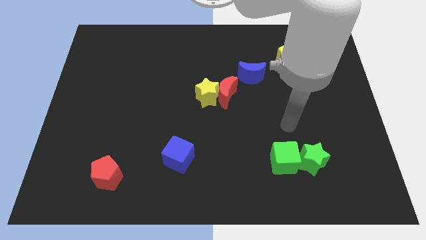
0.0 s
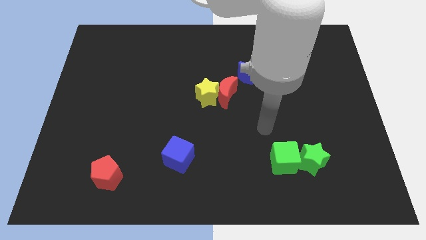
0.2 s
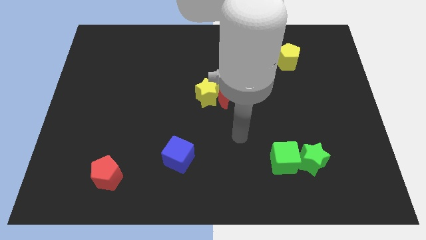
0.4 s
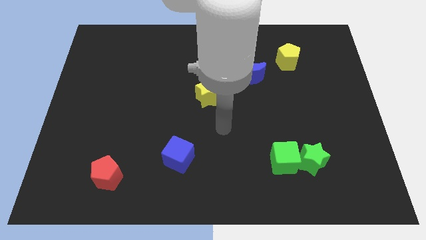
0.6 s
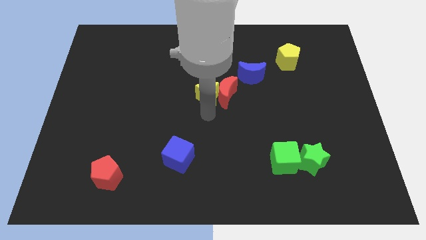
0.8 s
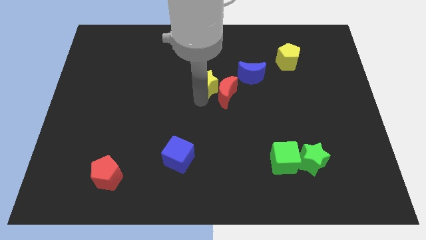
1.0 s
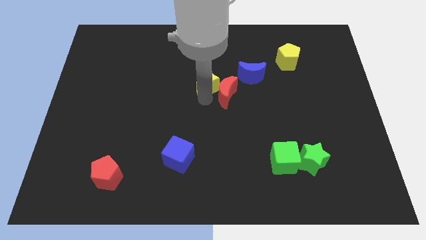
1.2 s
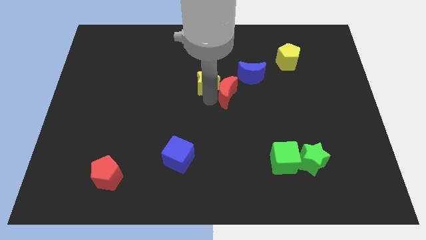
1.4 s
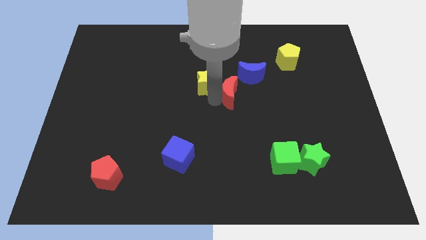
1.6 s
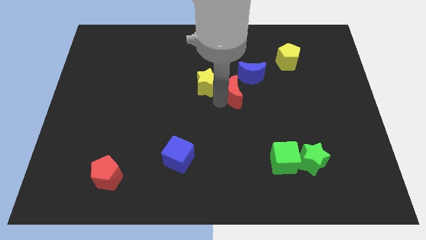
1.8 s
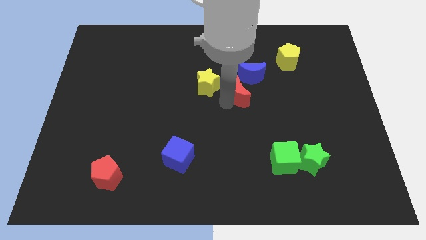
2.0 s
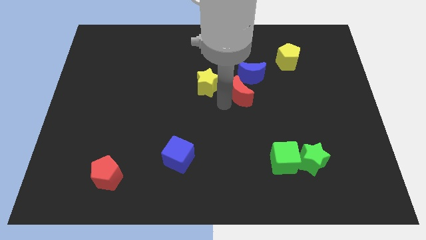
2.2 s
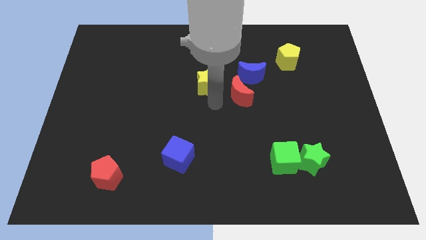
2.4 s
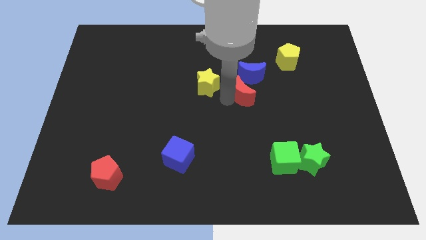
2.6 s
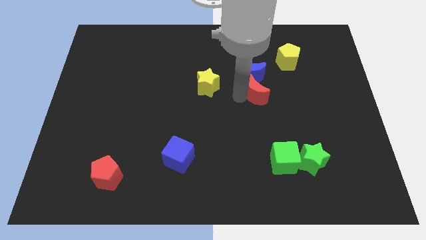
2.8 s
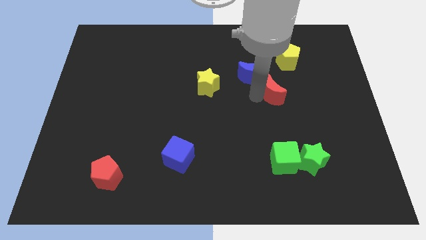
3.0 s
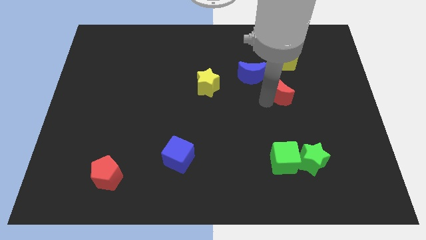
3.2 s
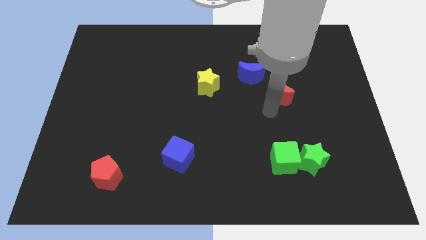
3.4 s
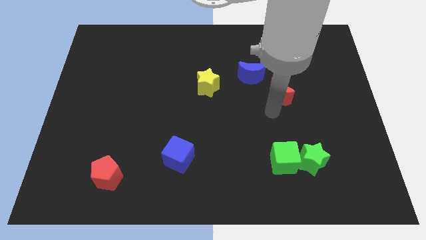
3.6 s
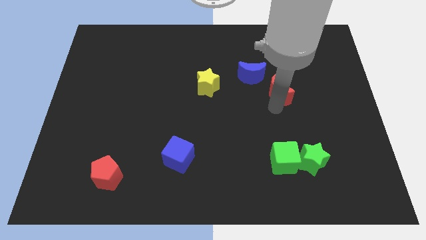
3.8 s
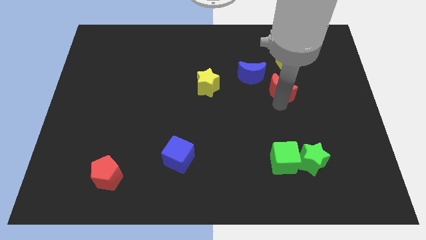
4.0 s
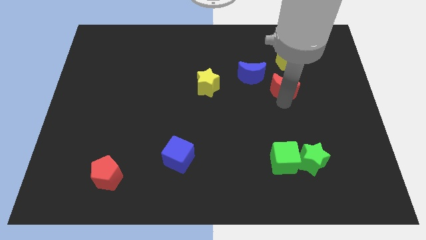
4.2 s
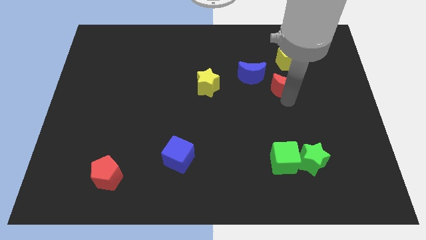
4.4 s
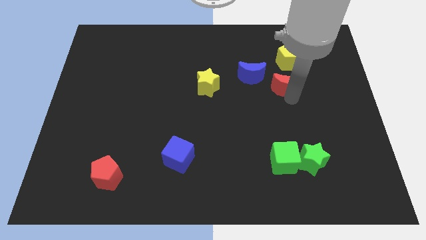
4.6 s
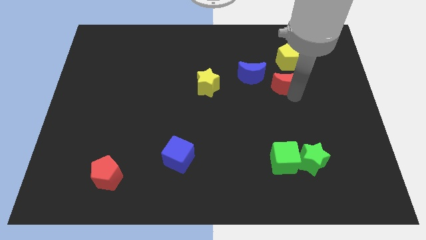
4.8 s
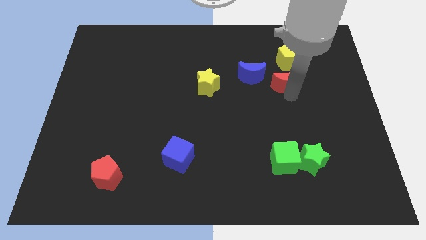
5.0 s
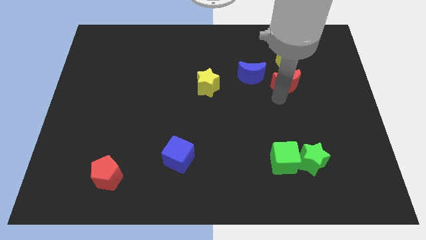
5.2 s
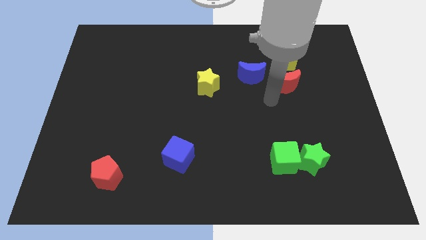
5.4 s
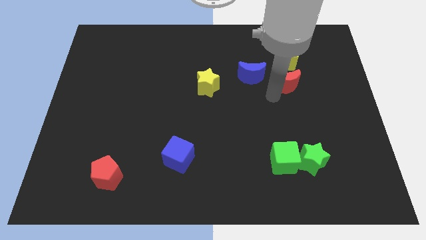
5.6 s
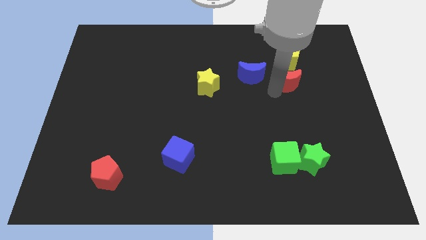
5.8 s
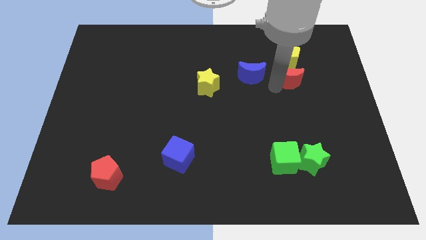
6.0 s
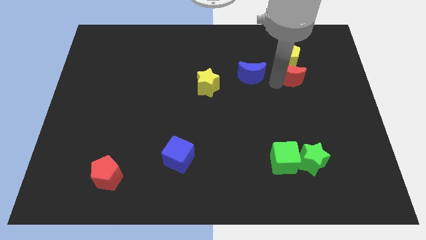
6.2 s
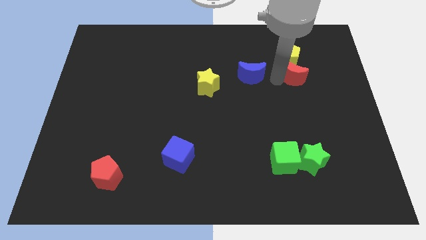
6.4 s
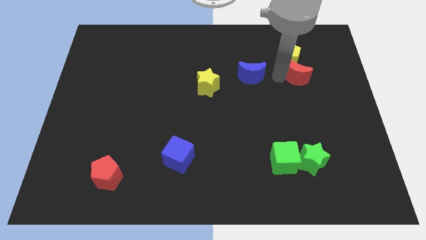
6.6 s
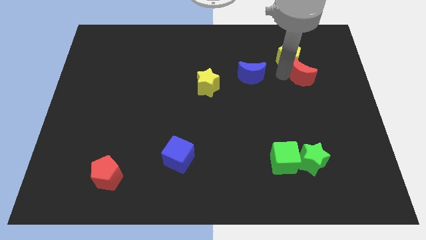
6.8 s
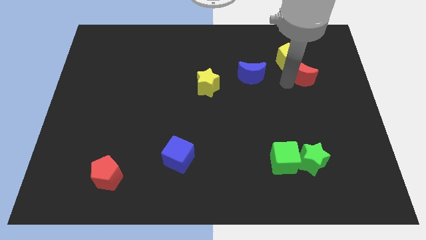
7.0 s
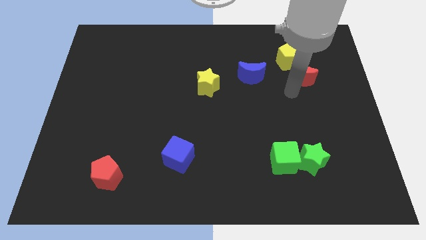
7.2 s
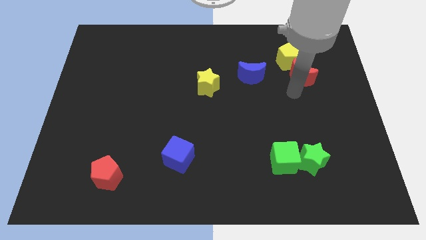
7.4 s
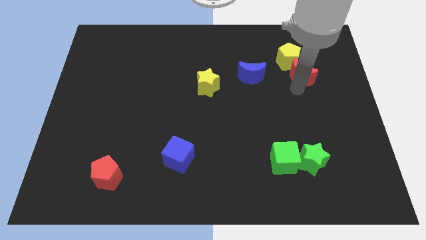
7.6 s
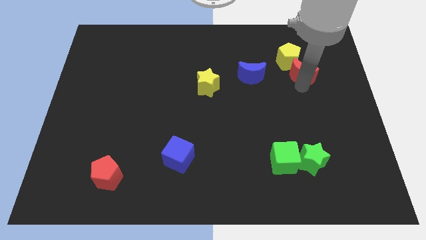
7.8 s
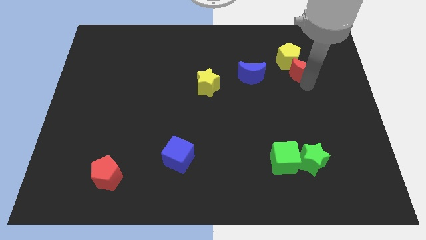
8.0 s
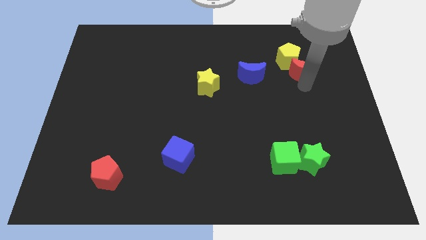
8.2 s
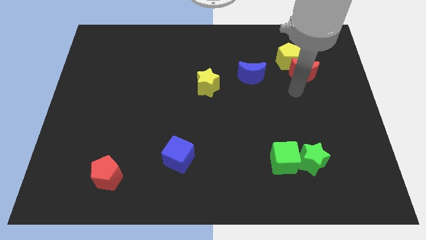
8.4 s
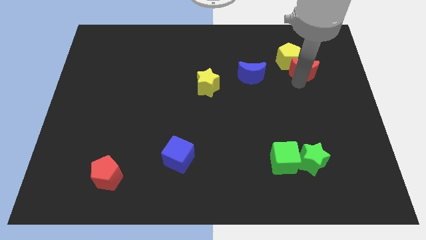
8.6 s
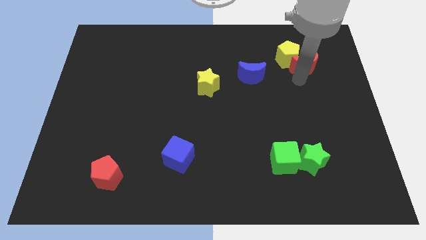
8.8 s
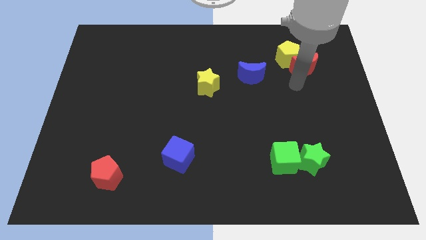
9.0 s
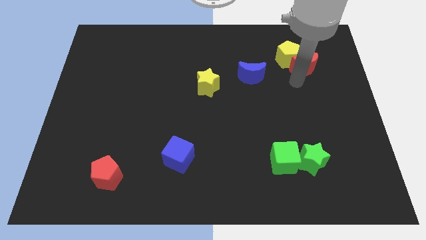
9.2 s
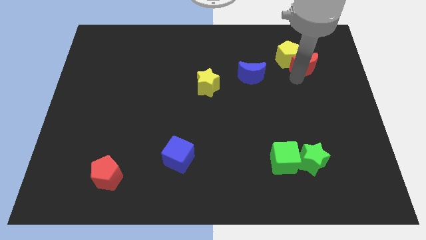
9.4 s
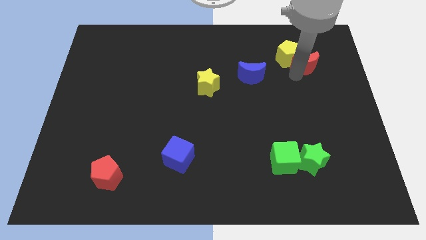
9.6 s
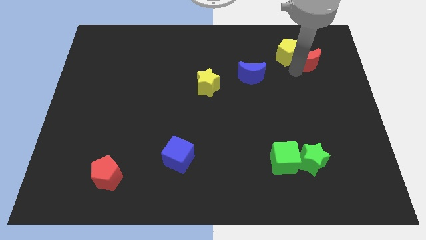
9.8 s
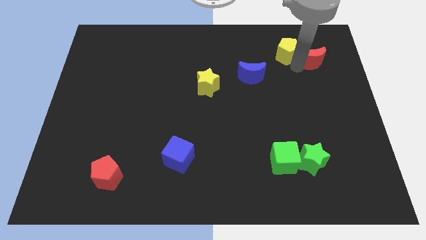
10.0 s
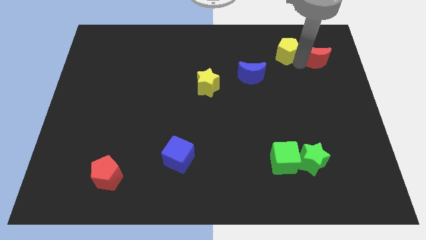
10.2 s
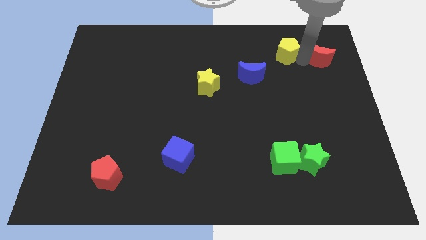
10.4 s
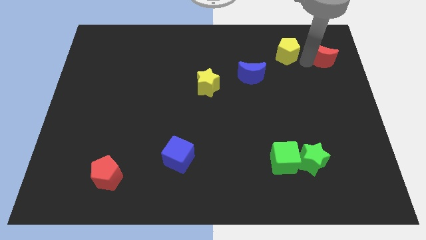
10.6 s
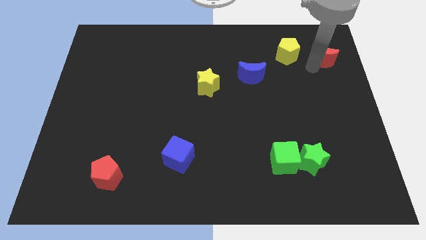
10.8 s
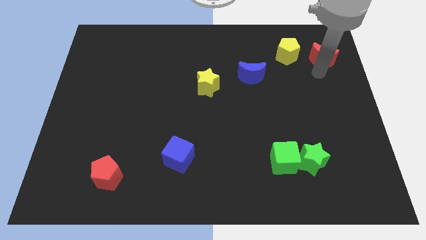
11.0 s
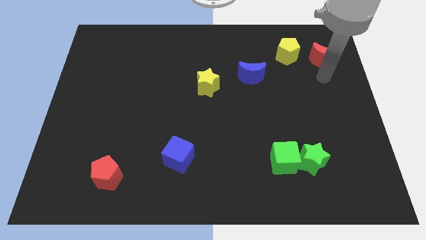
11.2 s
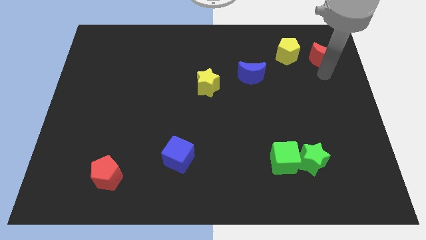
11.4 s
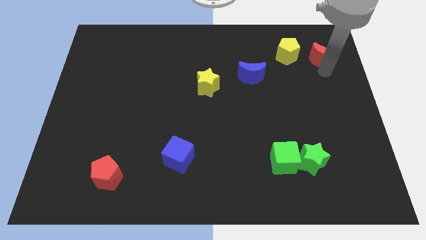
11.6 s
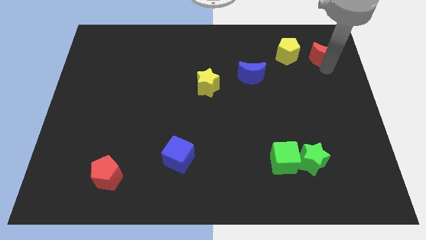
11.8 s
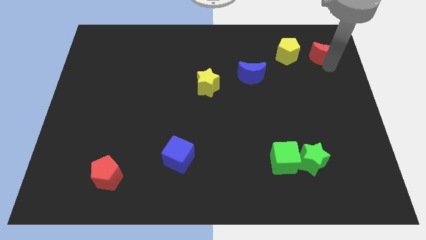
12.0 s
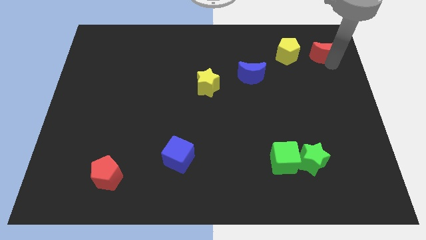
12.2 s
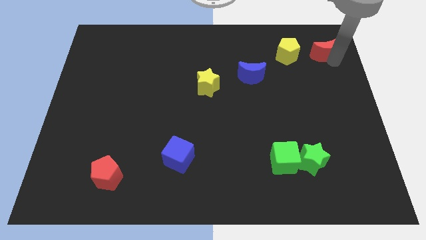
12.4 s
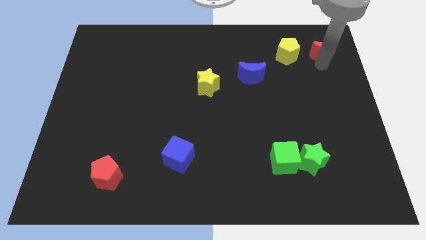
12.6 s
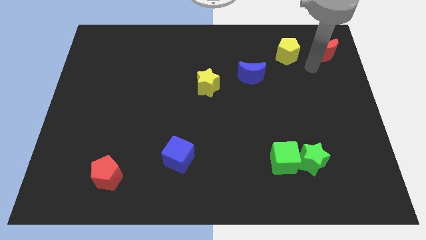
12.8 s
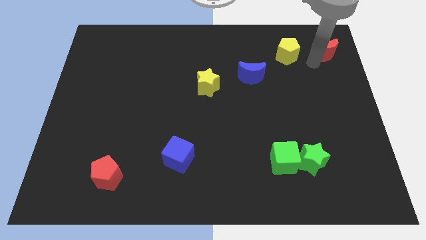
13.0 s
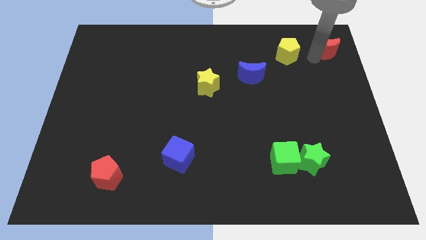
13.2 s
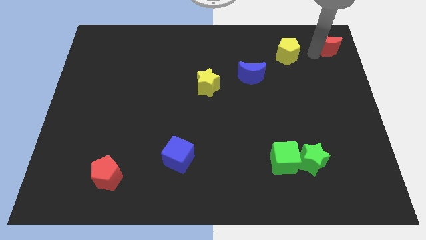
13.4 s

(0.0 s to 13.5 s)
put the red moon to the top right corner
